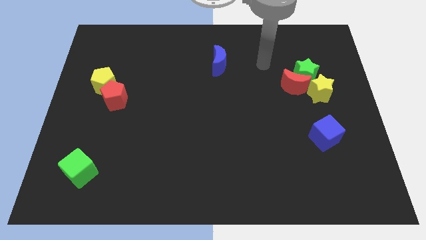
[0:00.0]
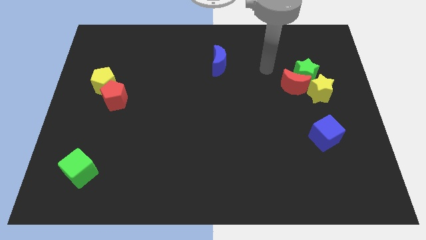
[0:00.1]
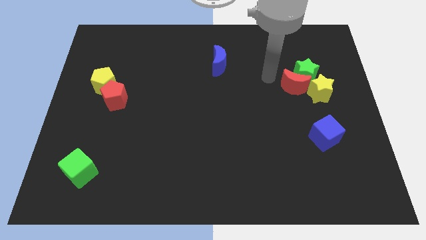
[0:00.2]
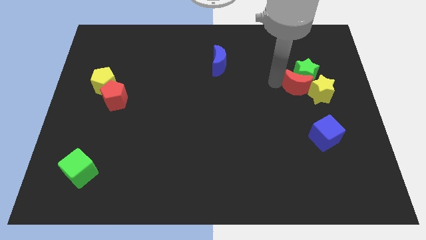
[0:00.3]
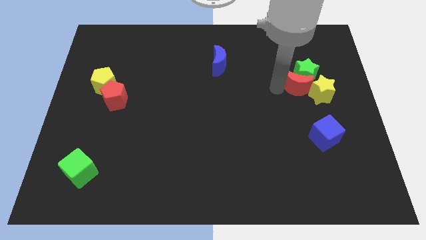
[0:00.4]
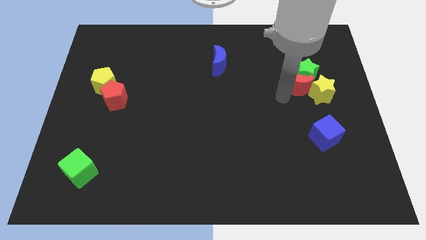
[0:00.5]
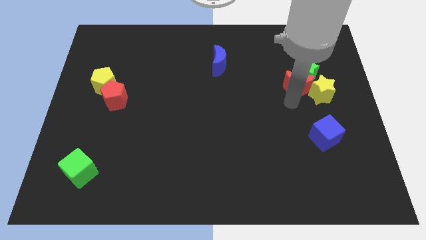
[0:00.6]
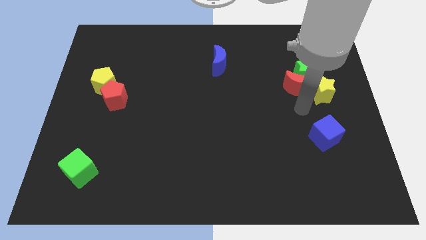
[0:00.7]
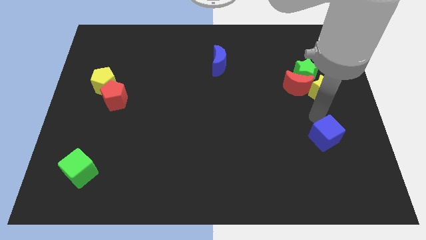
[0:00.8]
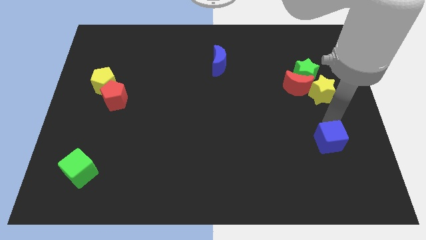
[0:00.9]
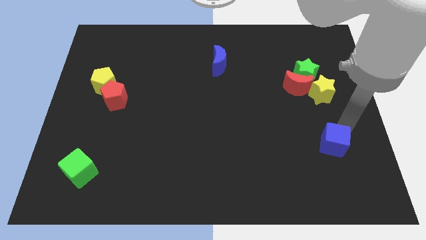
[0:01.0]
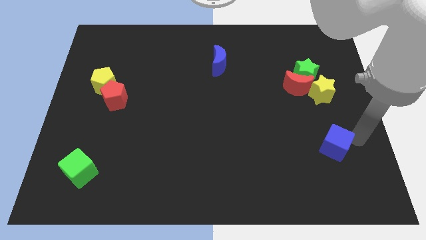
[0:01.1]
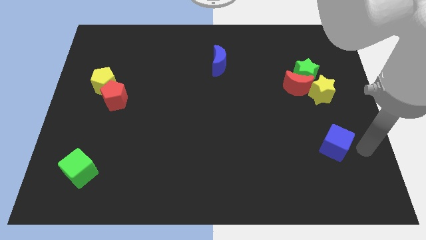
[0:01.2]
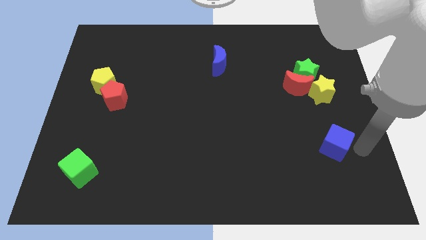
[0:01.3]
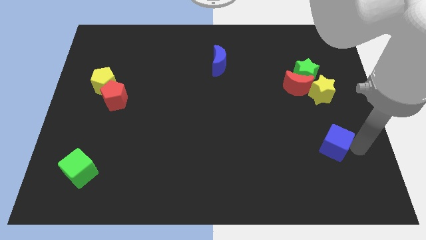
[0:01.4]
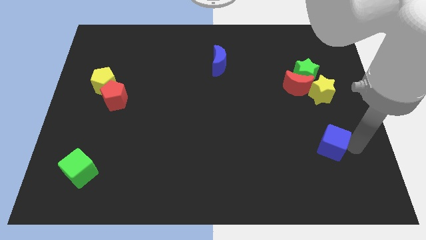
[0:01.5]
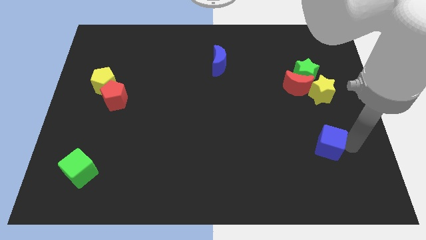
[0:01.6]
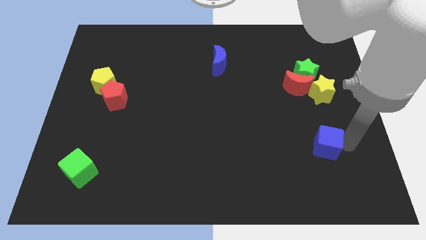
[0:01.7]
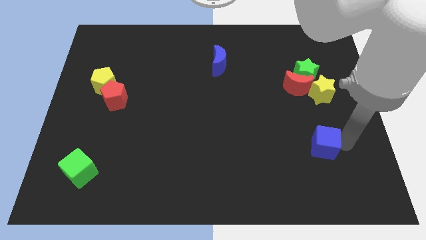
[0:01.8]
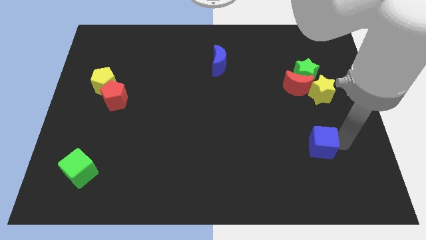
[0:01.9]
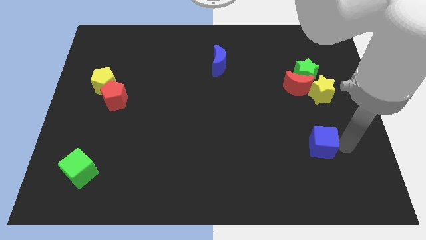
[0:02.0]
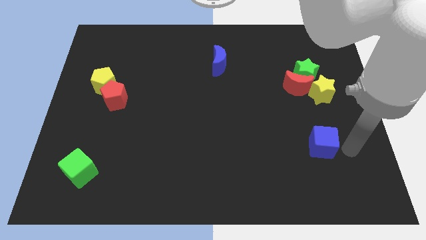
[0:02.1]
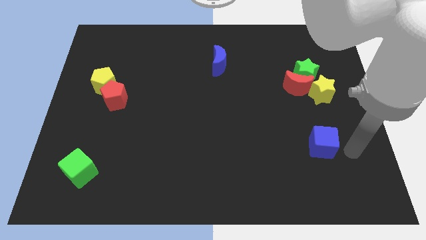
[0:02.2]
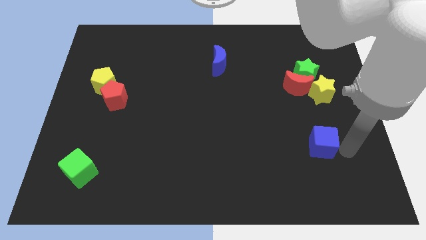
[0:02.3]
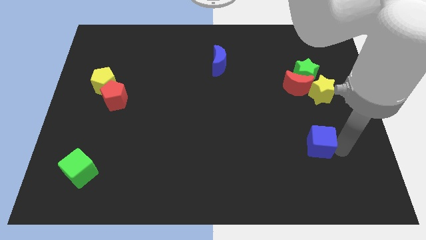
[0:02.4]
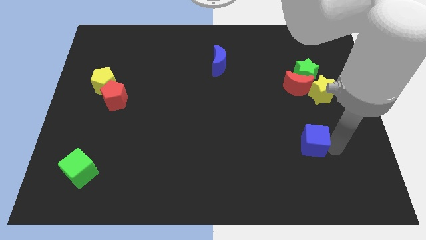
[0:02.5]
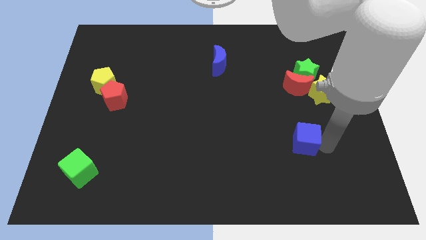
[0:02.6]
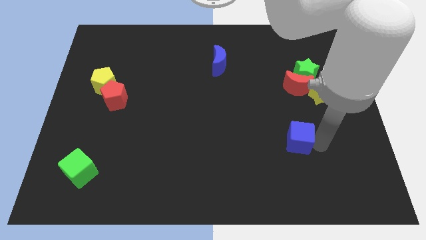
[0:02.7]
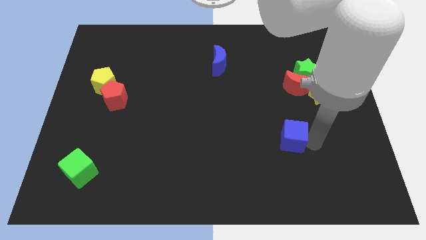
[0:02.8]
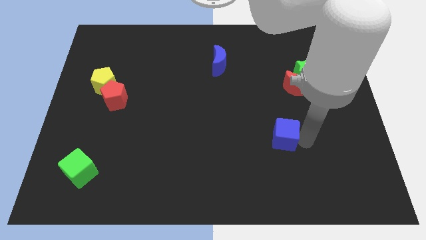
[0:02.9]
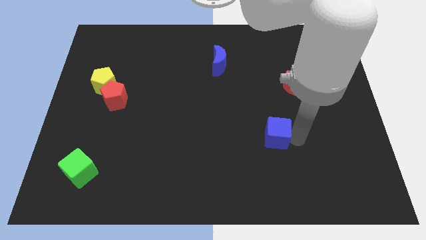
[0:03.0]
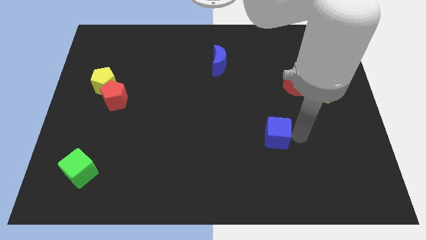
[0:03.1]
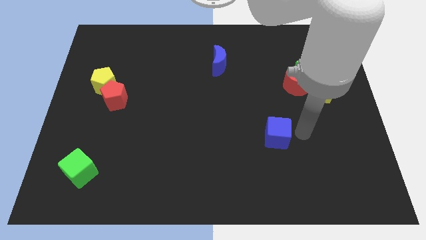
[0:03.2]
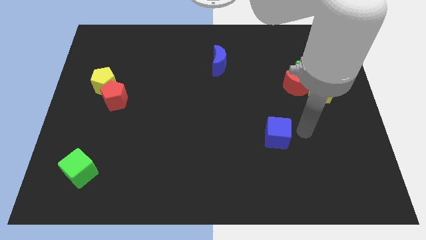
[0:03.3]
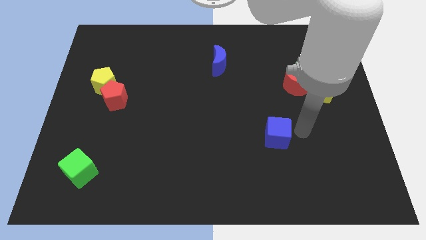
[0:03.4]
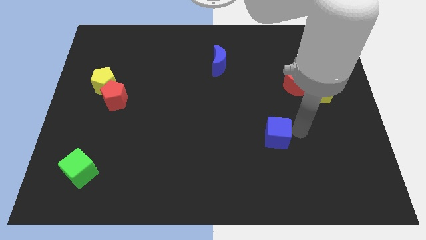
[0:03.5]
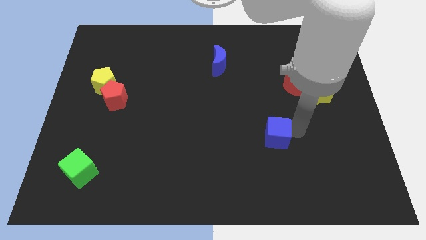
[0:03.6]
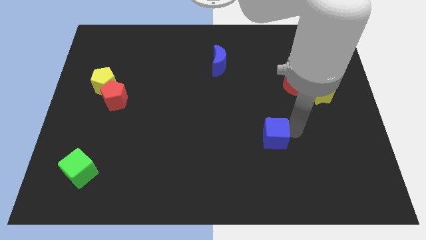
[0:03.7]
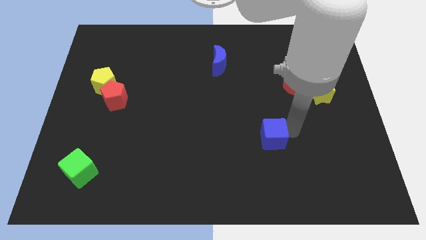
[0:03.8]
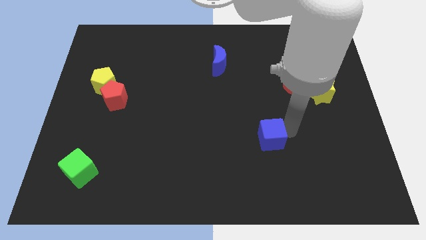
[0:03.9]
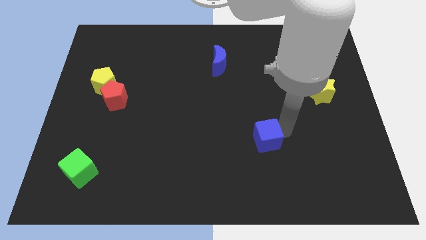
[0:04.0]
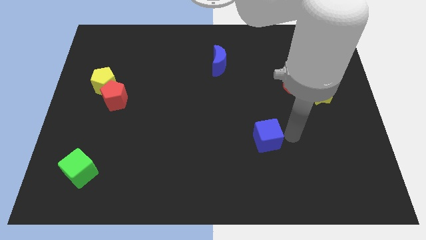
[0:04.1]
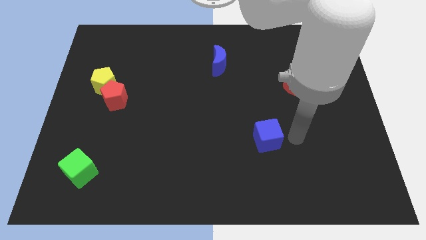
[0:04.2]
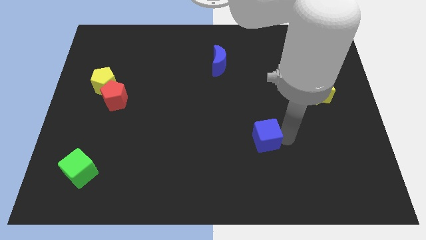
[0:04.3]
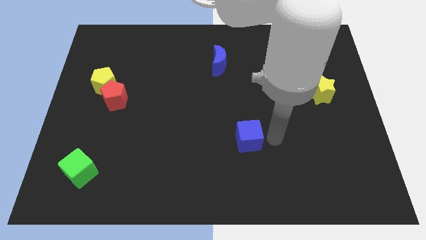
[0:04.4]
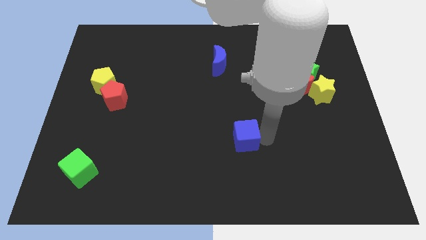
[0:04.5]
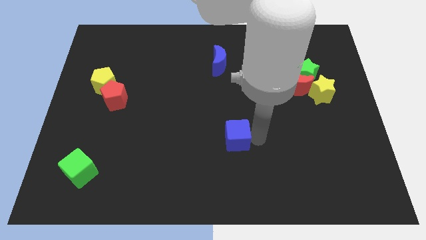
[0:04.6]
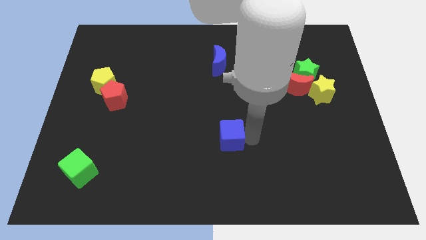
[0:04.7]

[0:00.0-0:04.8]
move the blue cube to the left

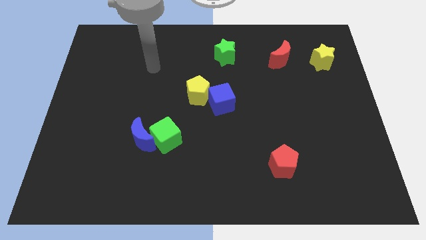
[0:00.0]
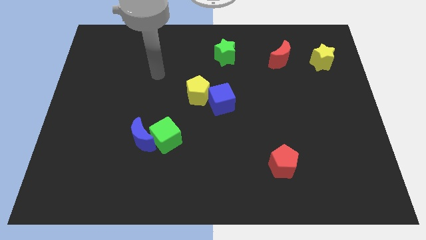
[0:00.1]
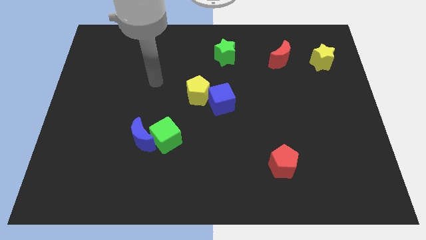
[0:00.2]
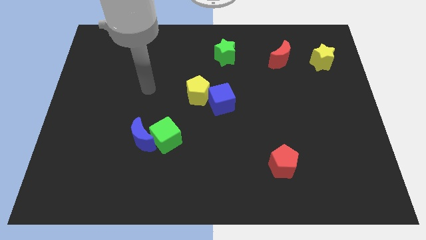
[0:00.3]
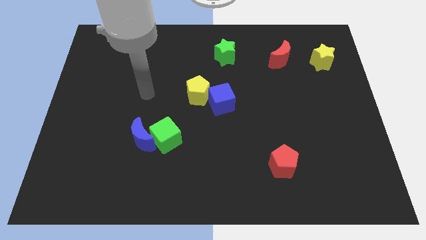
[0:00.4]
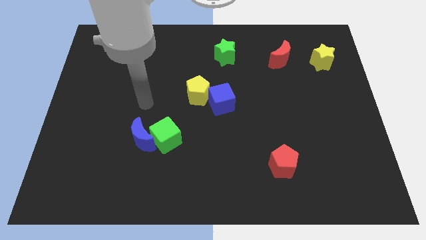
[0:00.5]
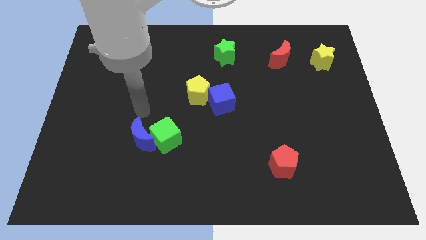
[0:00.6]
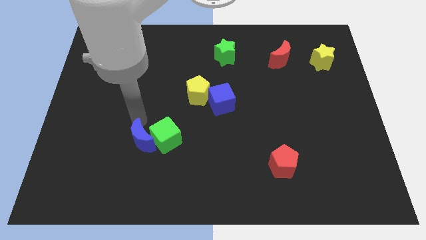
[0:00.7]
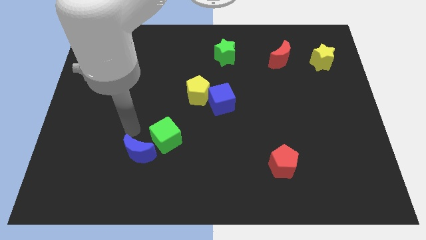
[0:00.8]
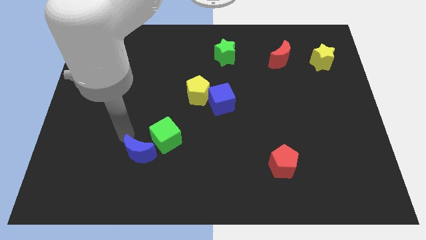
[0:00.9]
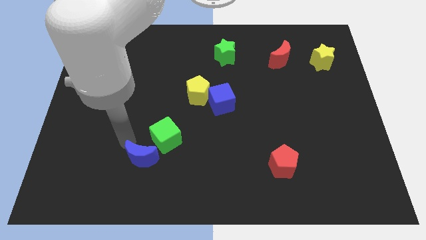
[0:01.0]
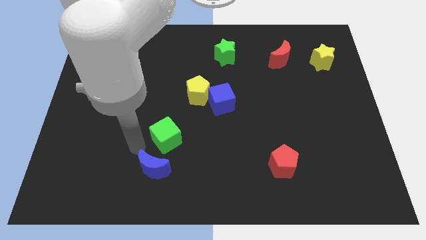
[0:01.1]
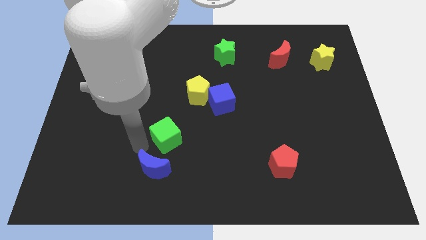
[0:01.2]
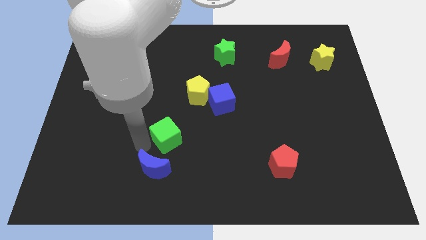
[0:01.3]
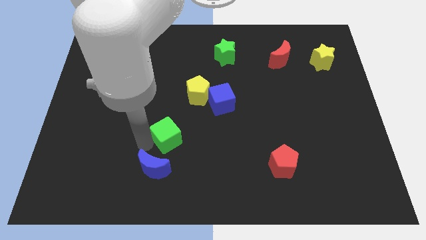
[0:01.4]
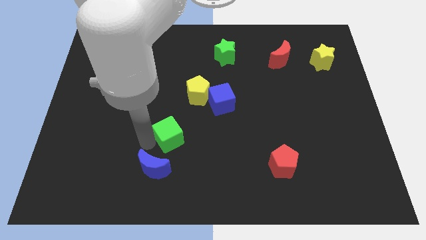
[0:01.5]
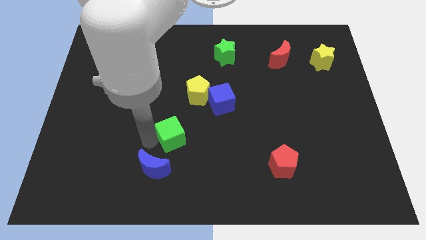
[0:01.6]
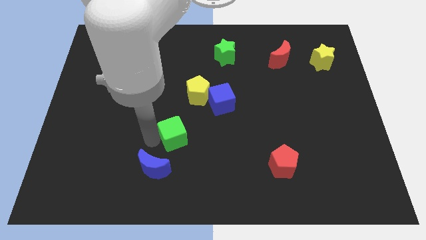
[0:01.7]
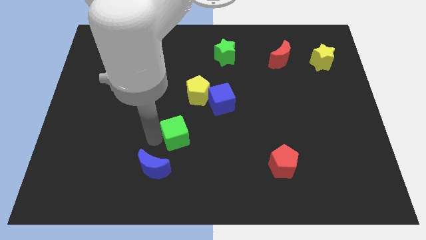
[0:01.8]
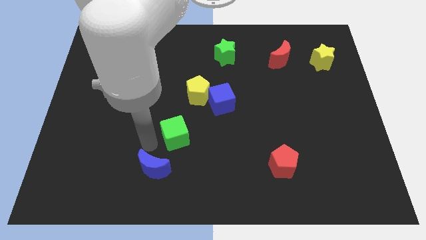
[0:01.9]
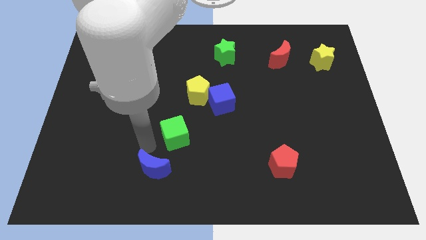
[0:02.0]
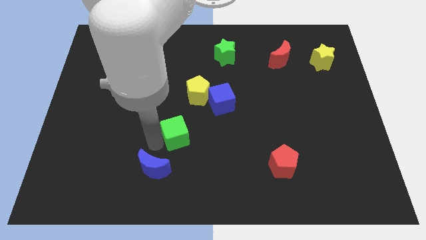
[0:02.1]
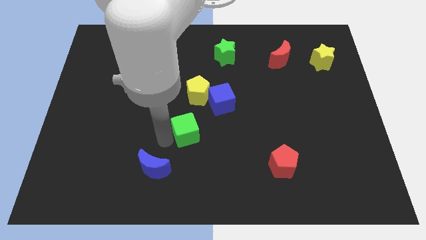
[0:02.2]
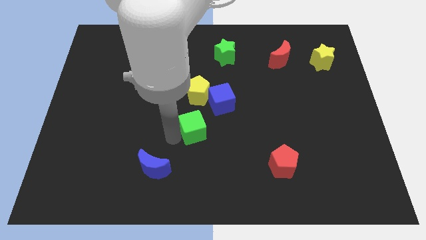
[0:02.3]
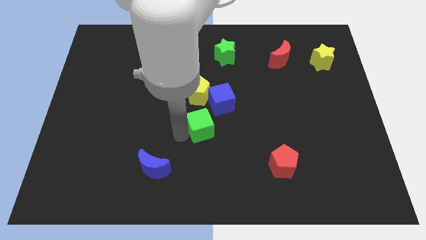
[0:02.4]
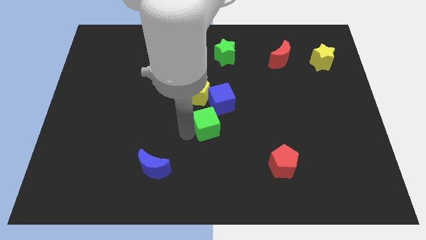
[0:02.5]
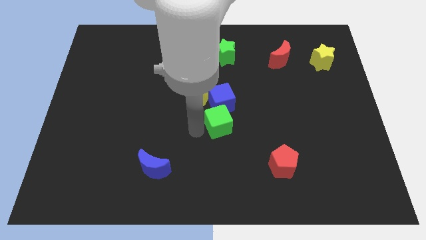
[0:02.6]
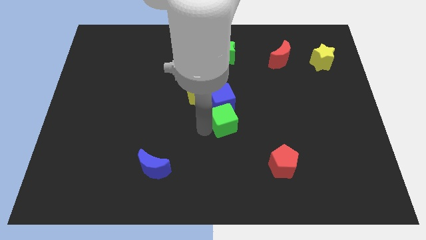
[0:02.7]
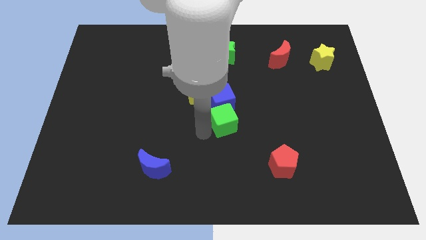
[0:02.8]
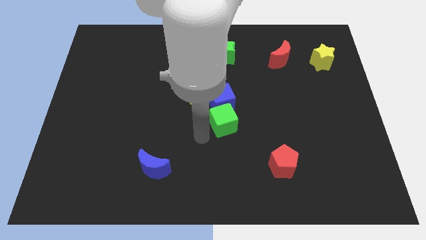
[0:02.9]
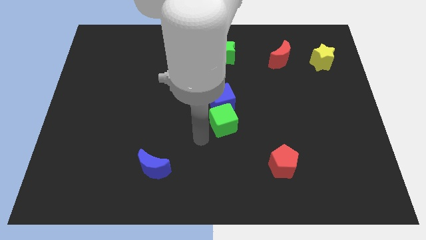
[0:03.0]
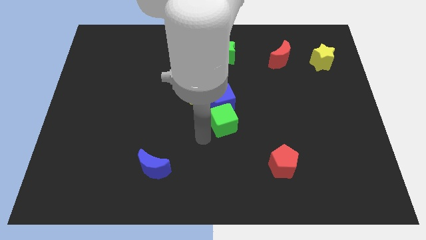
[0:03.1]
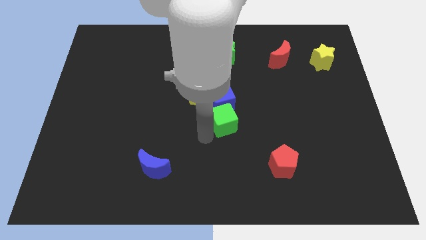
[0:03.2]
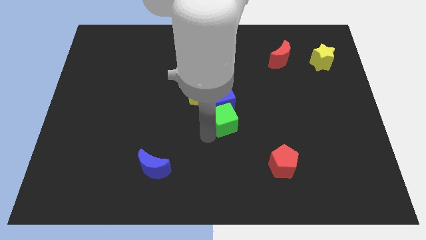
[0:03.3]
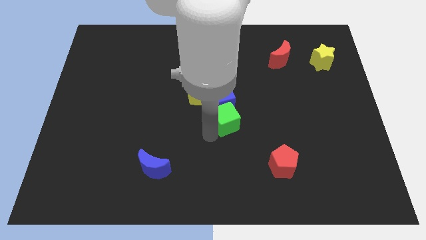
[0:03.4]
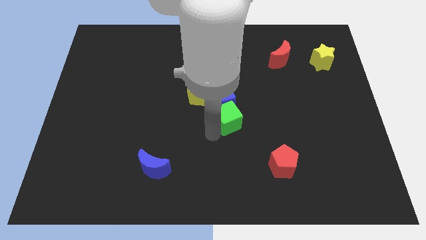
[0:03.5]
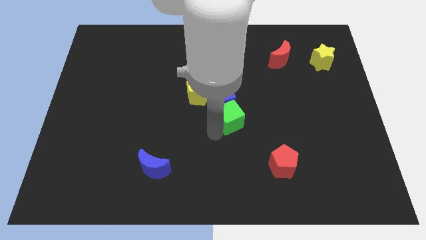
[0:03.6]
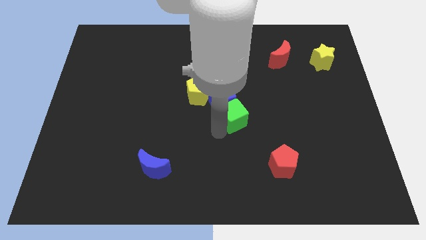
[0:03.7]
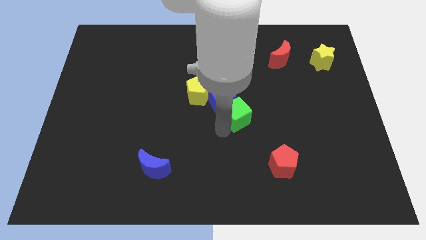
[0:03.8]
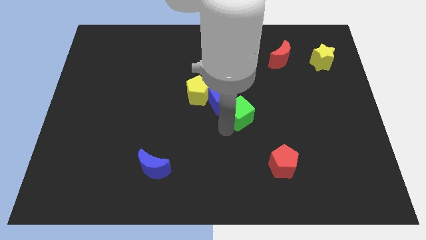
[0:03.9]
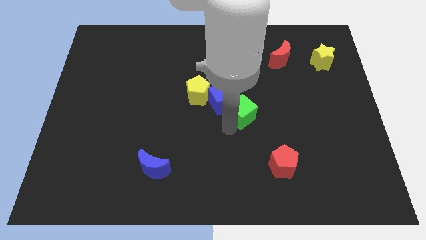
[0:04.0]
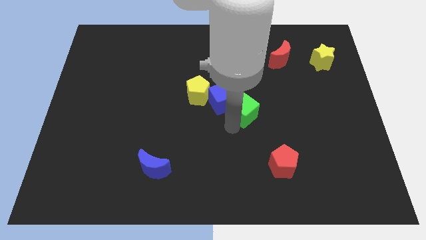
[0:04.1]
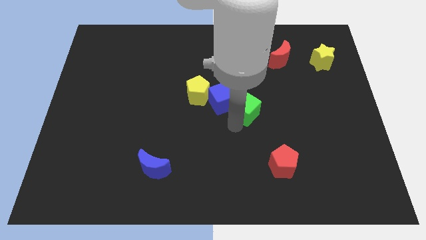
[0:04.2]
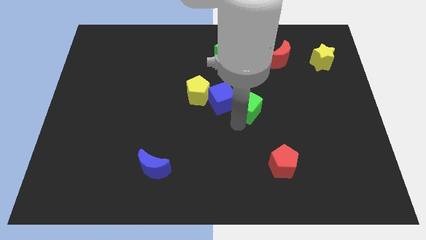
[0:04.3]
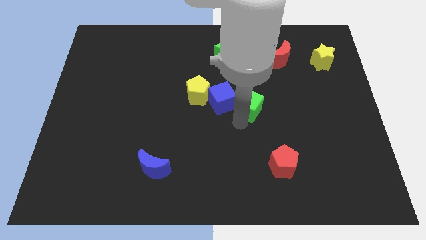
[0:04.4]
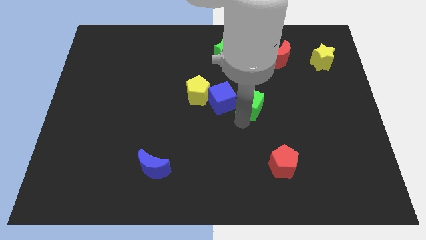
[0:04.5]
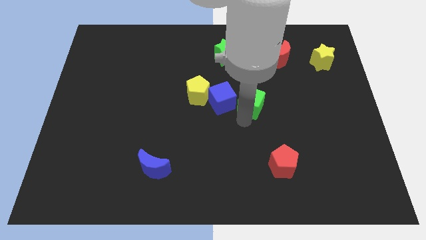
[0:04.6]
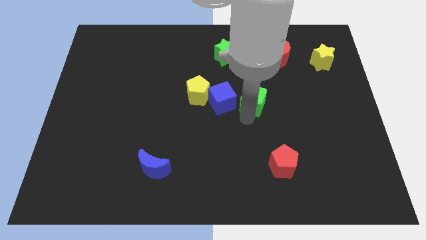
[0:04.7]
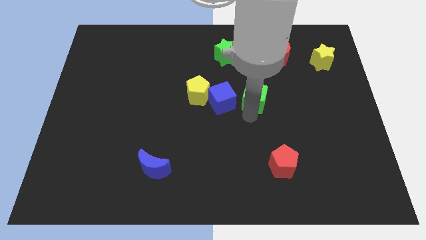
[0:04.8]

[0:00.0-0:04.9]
slide the green cube diagonally upwards and to the right
